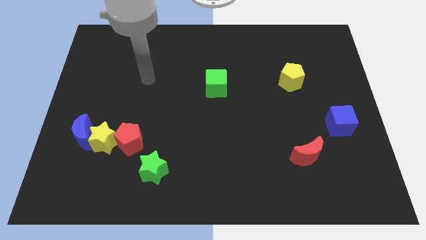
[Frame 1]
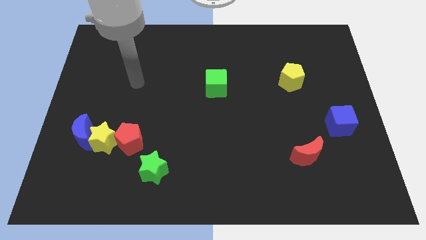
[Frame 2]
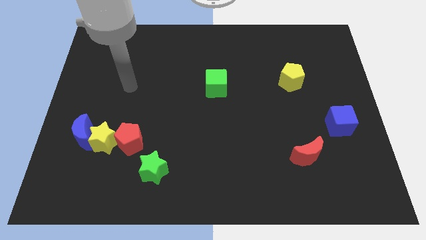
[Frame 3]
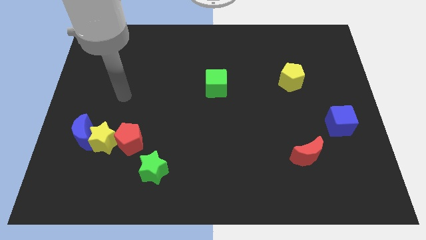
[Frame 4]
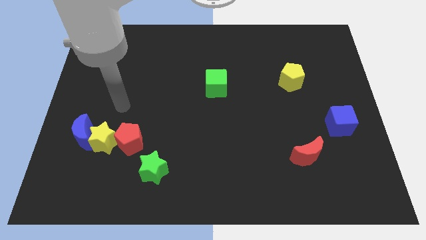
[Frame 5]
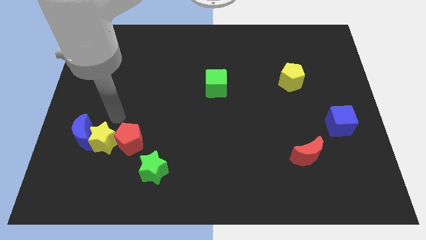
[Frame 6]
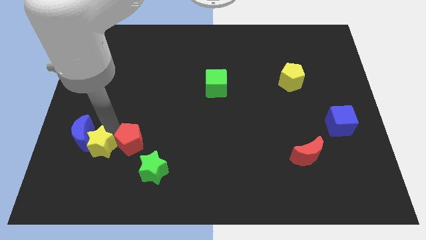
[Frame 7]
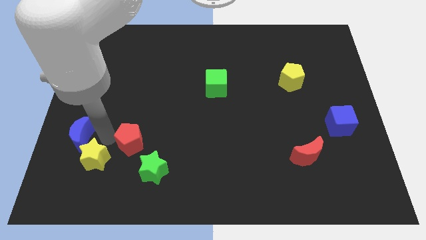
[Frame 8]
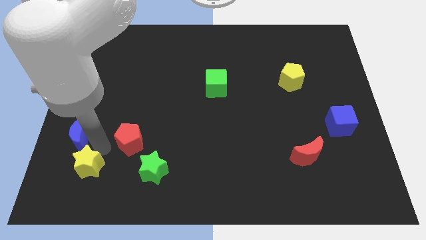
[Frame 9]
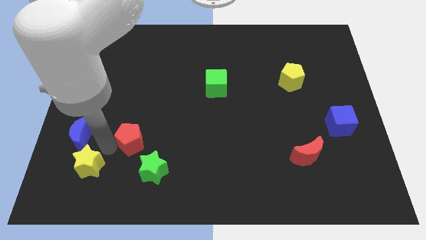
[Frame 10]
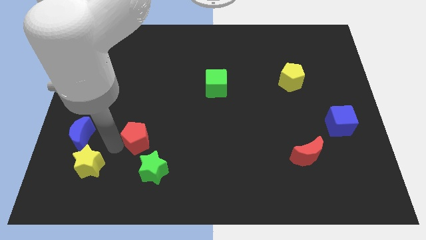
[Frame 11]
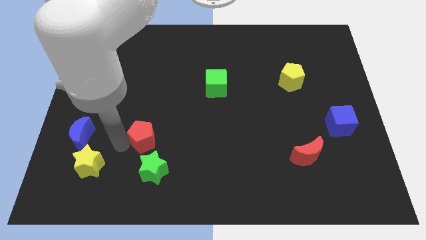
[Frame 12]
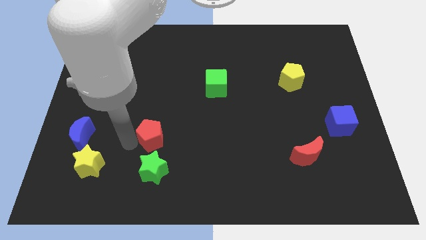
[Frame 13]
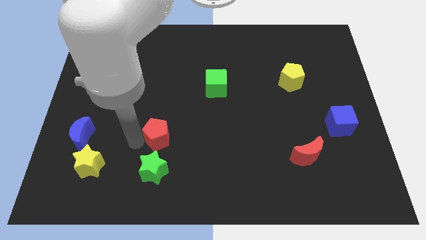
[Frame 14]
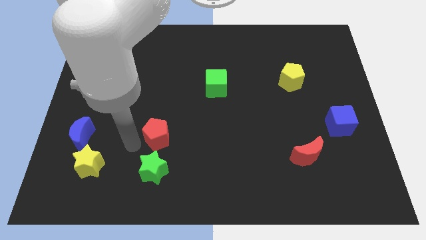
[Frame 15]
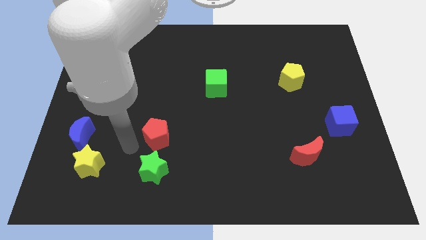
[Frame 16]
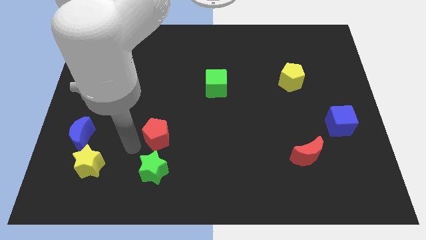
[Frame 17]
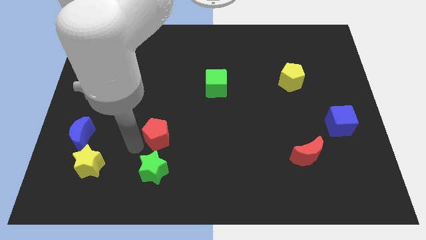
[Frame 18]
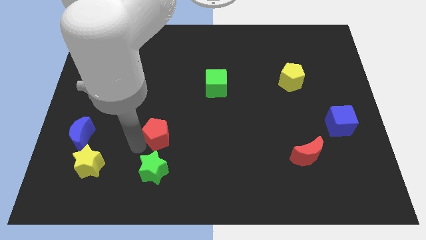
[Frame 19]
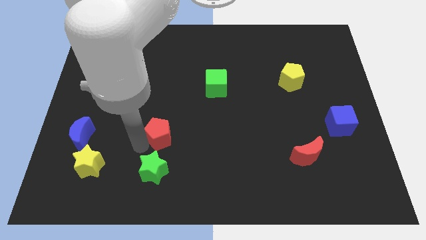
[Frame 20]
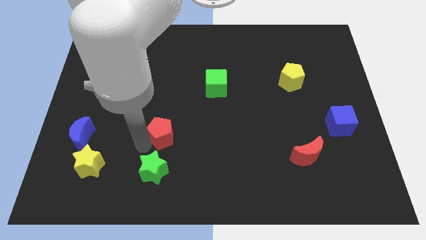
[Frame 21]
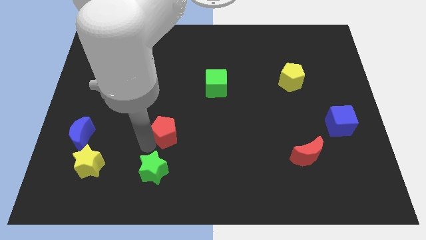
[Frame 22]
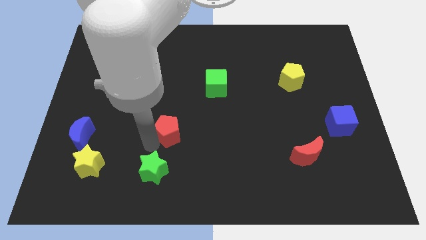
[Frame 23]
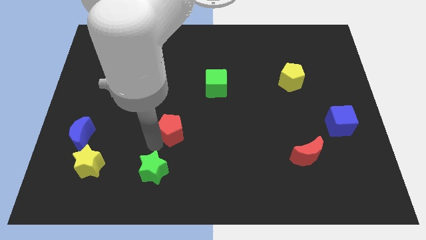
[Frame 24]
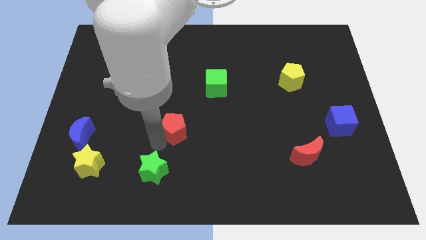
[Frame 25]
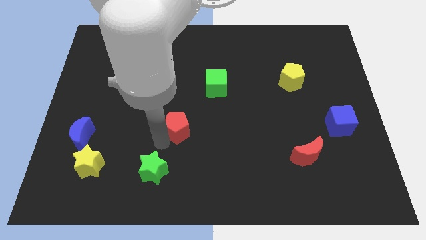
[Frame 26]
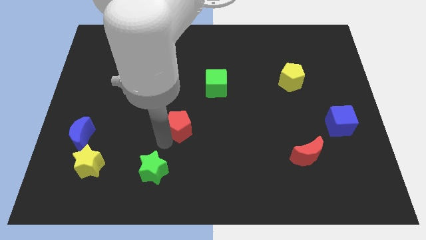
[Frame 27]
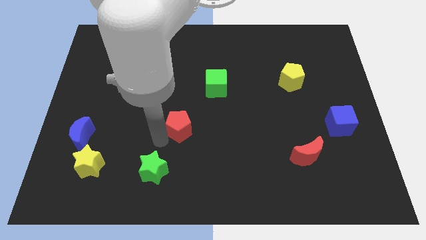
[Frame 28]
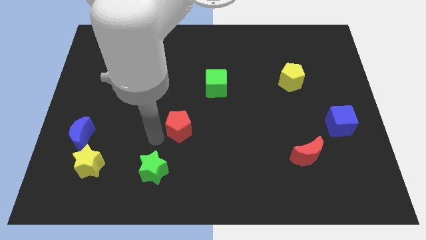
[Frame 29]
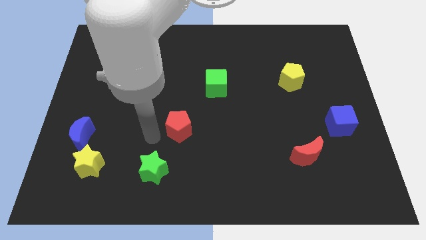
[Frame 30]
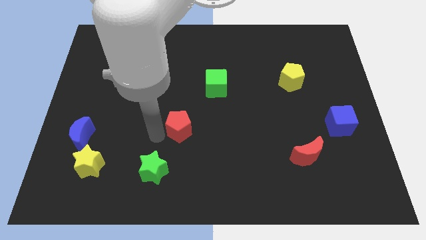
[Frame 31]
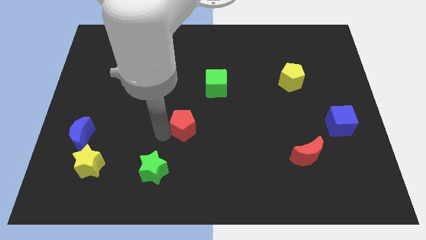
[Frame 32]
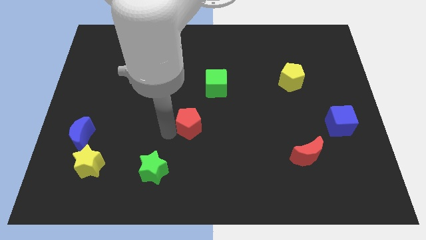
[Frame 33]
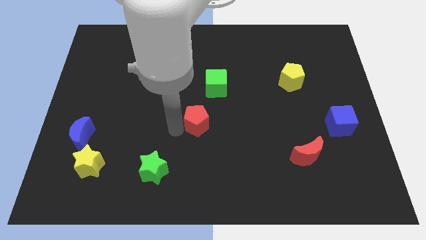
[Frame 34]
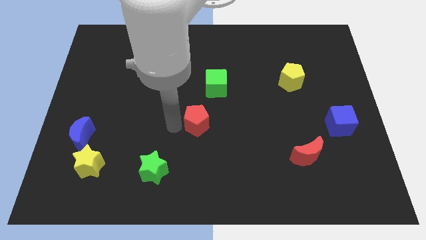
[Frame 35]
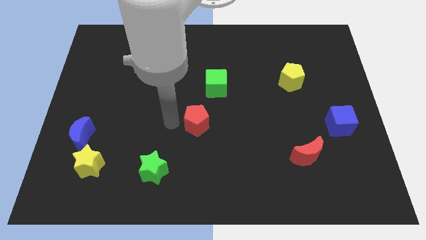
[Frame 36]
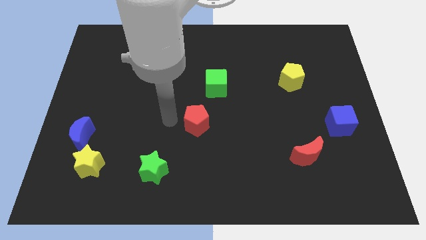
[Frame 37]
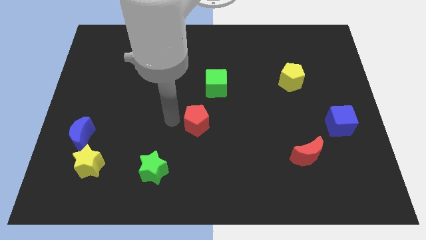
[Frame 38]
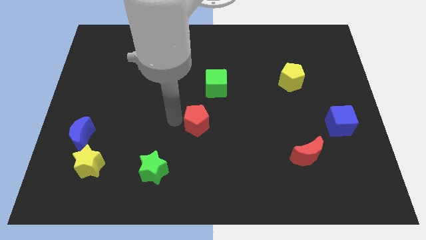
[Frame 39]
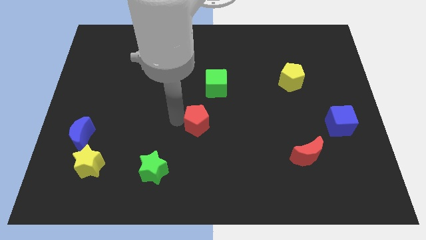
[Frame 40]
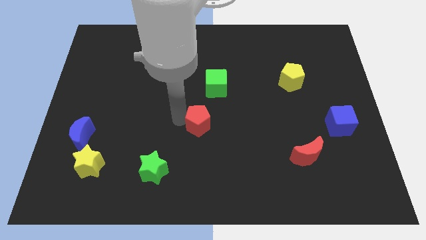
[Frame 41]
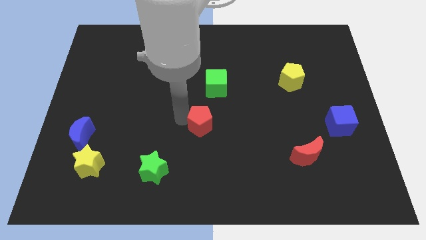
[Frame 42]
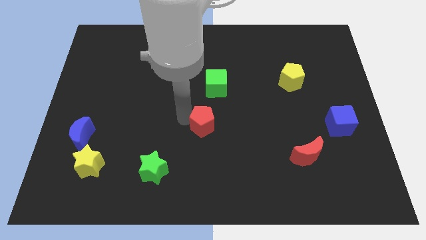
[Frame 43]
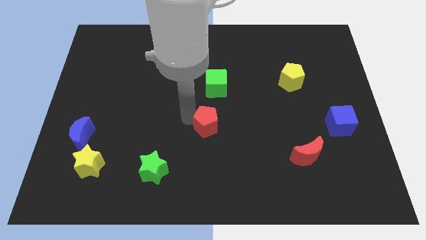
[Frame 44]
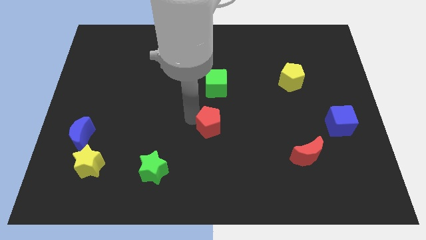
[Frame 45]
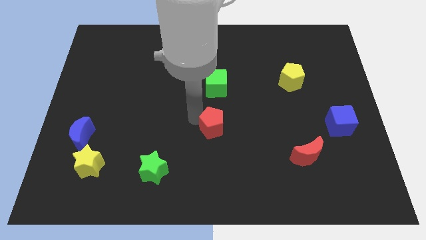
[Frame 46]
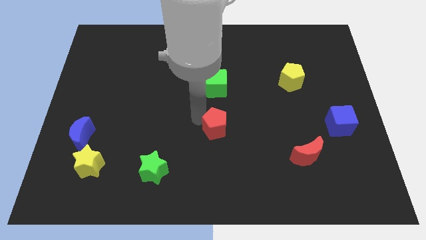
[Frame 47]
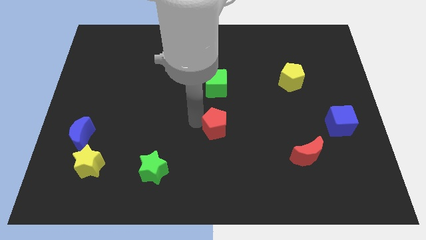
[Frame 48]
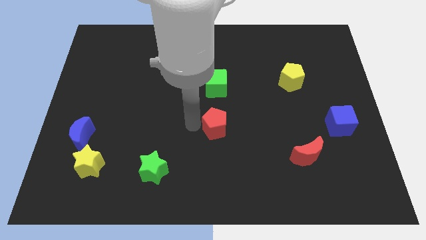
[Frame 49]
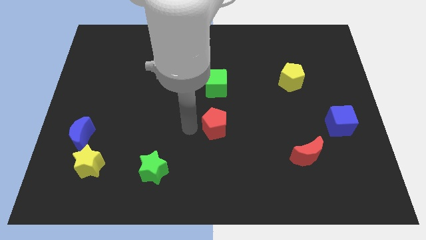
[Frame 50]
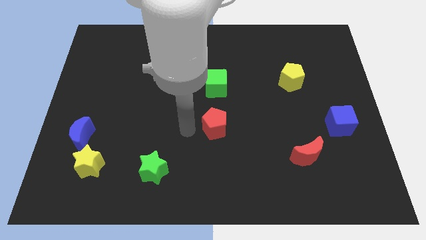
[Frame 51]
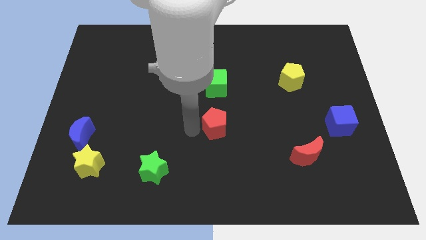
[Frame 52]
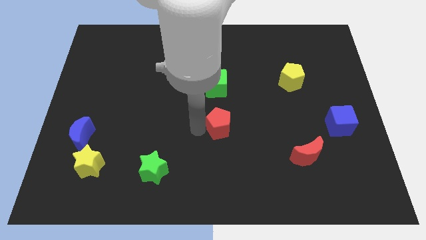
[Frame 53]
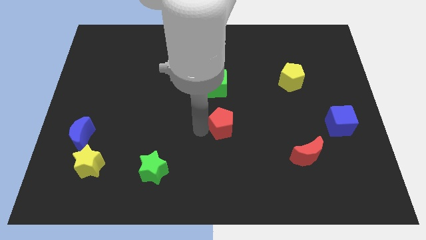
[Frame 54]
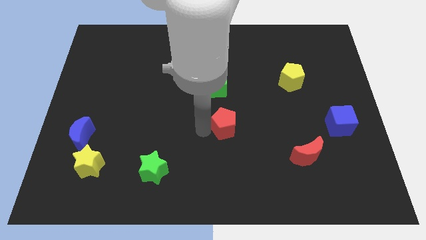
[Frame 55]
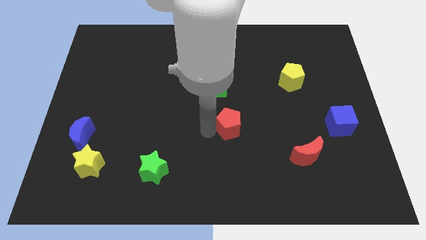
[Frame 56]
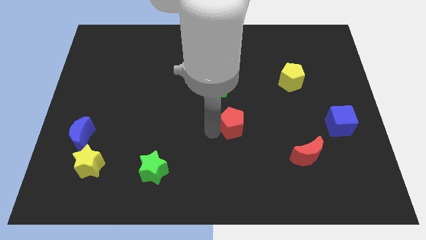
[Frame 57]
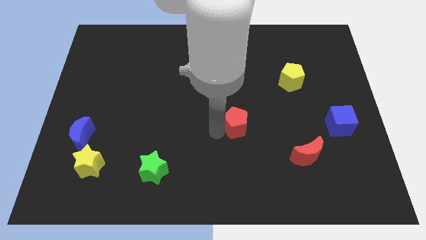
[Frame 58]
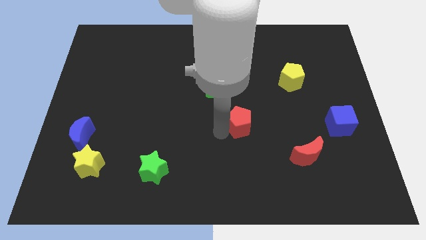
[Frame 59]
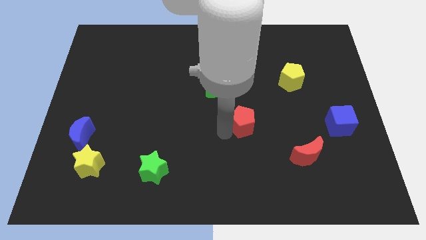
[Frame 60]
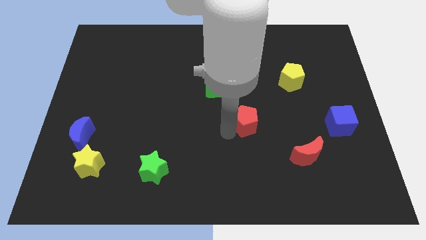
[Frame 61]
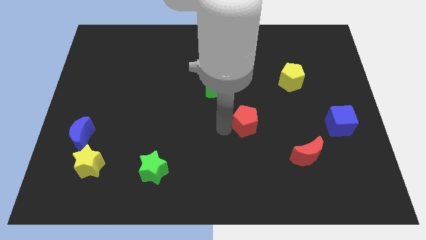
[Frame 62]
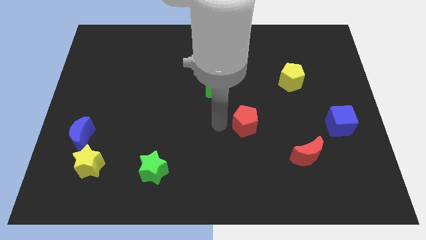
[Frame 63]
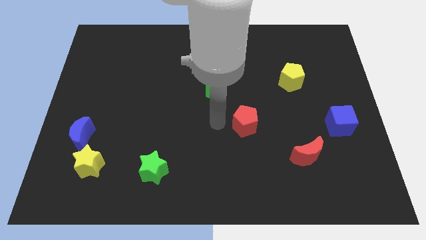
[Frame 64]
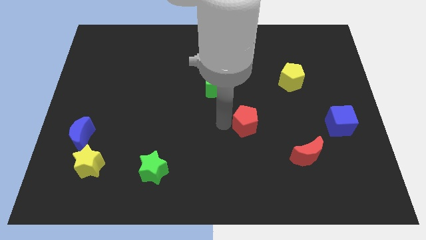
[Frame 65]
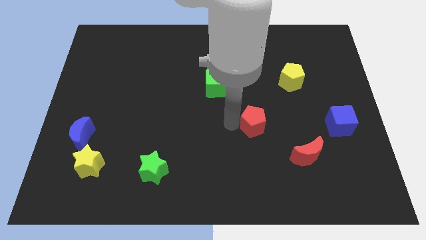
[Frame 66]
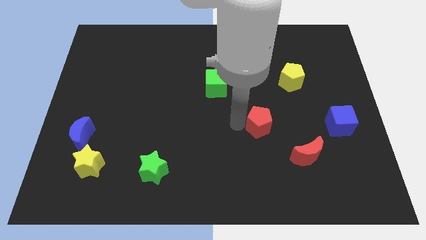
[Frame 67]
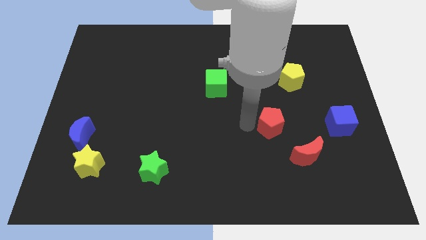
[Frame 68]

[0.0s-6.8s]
slide the red pentagon to the left of the blue cube

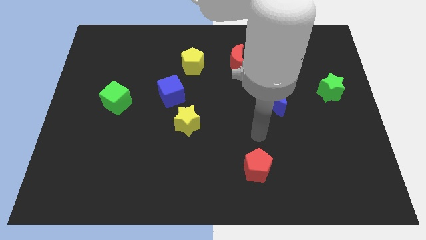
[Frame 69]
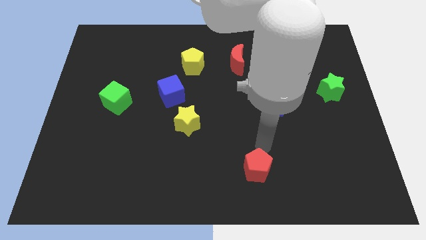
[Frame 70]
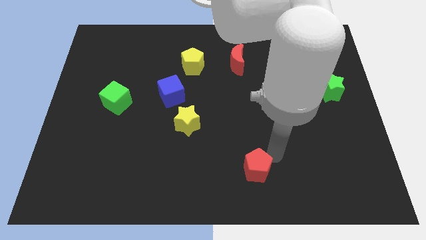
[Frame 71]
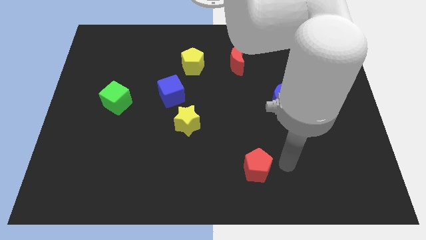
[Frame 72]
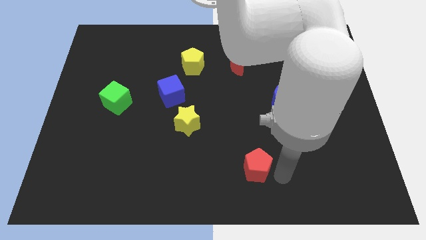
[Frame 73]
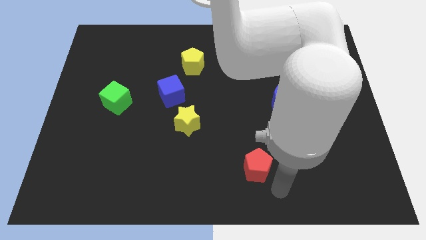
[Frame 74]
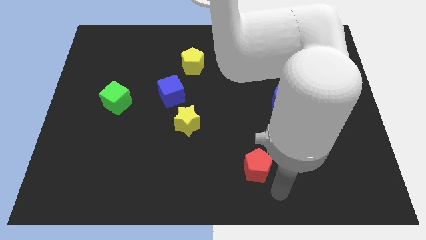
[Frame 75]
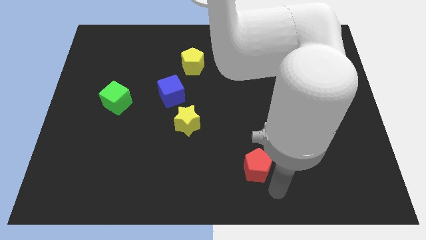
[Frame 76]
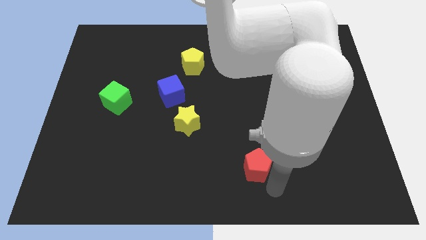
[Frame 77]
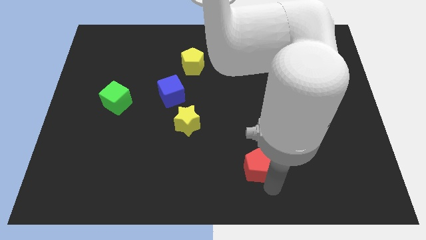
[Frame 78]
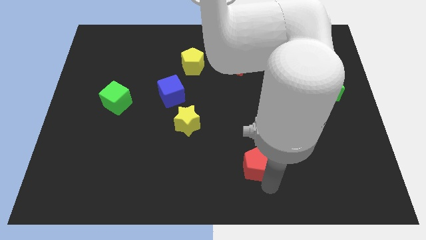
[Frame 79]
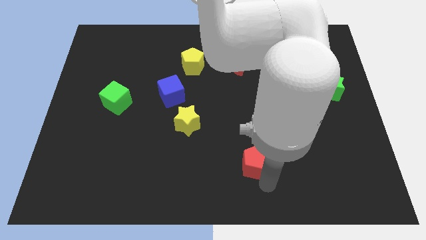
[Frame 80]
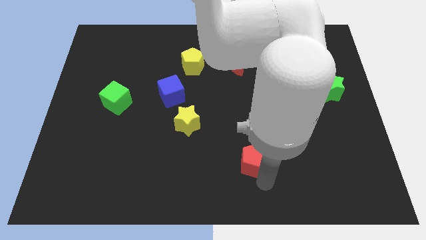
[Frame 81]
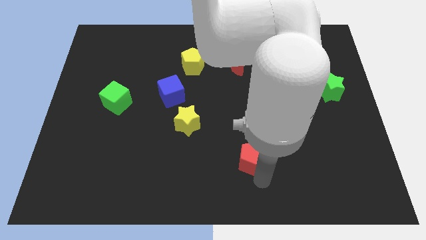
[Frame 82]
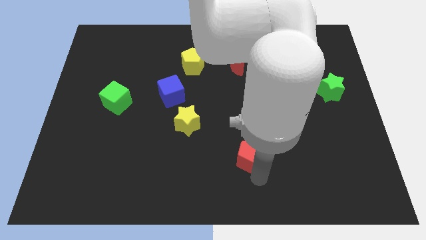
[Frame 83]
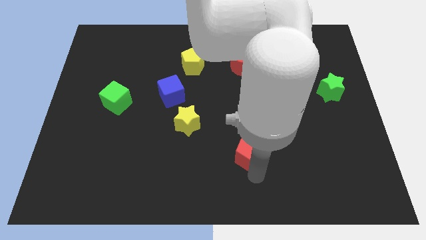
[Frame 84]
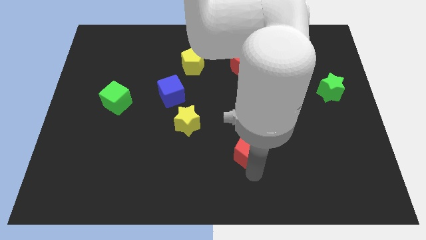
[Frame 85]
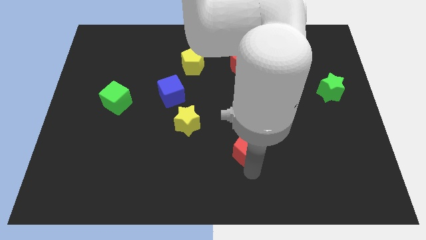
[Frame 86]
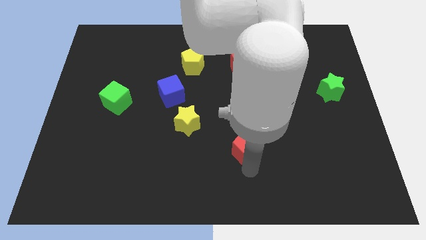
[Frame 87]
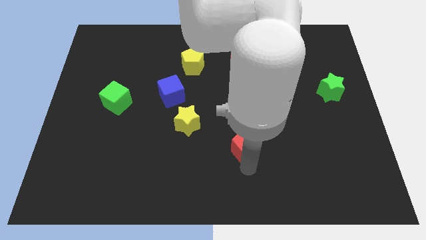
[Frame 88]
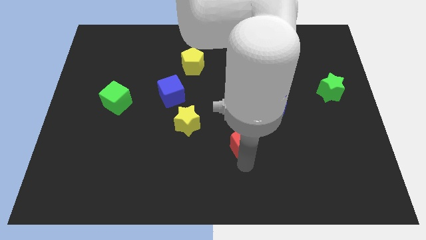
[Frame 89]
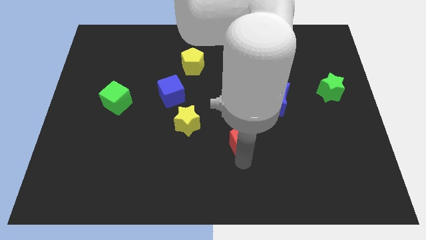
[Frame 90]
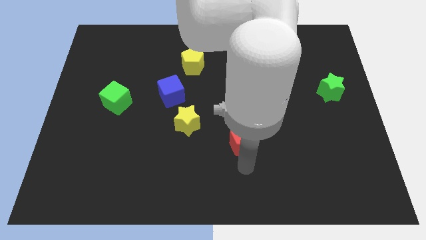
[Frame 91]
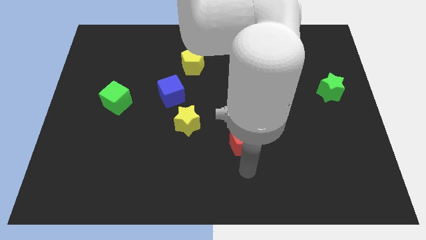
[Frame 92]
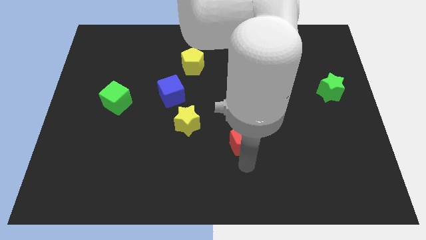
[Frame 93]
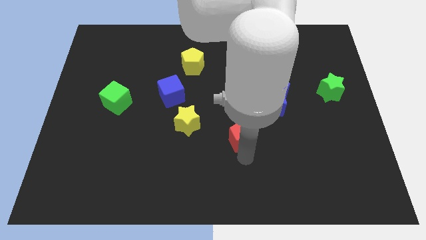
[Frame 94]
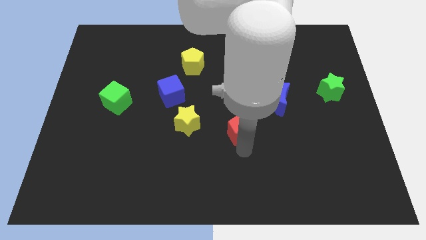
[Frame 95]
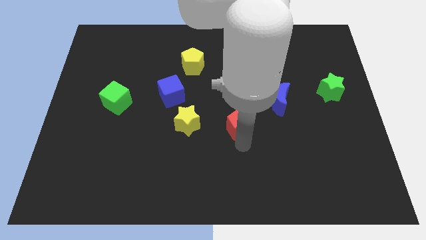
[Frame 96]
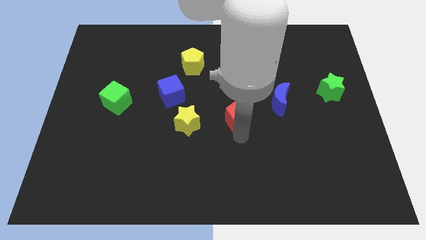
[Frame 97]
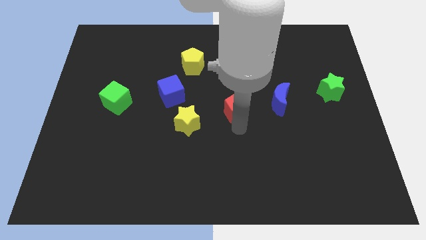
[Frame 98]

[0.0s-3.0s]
move the red pentagon to the bottom of the red moon
